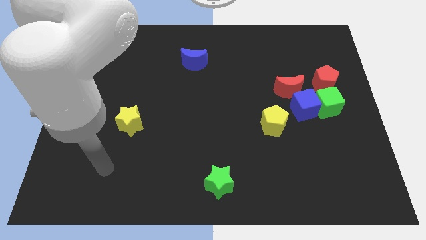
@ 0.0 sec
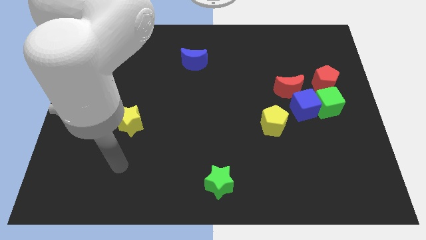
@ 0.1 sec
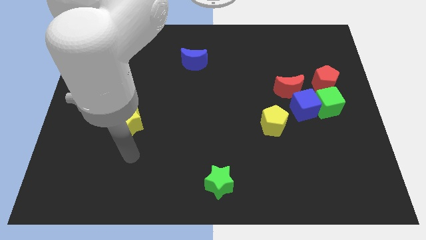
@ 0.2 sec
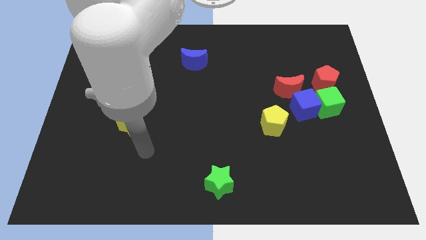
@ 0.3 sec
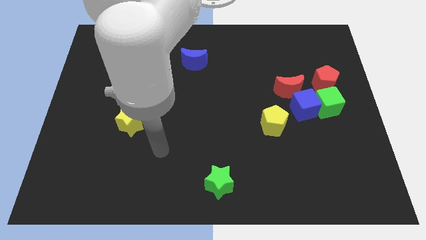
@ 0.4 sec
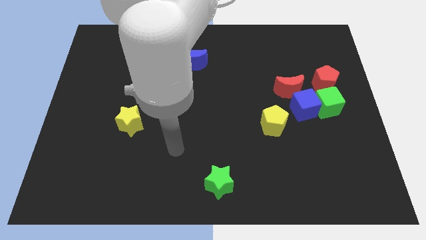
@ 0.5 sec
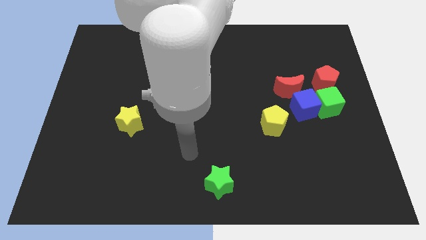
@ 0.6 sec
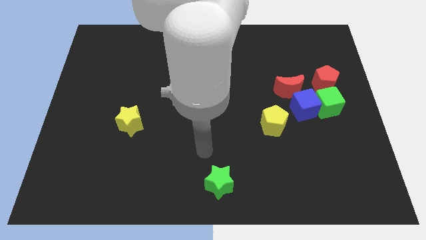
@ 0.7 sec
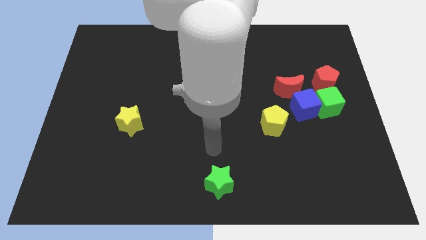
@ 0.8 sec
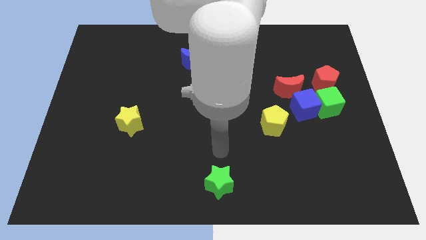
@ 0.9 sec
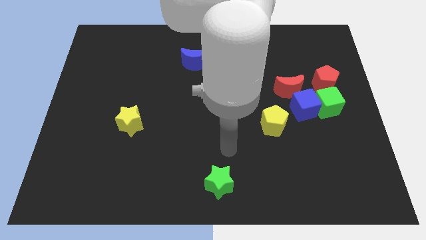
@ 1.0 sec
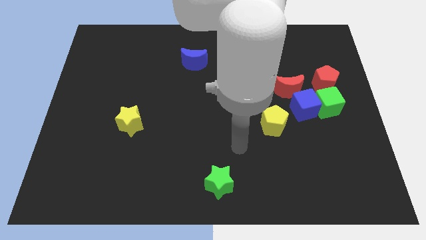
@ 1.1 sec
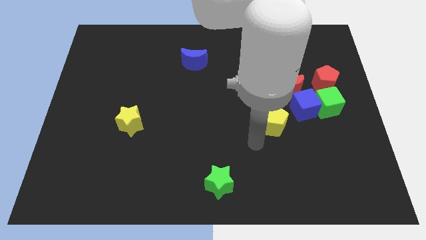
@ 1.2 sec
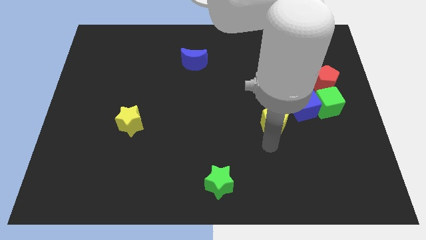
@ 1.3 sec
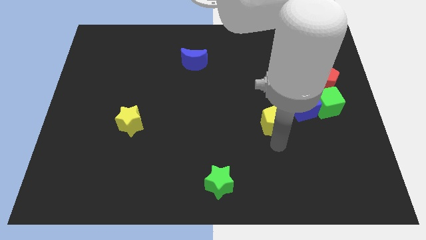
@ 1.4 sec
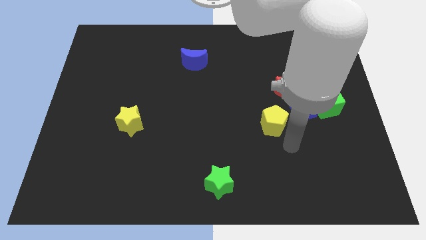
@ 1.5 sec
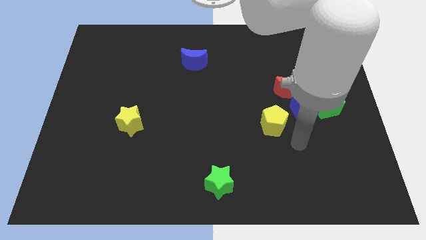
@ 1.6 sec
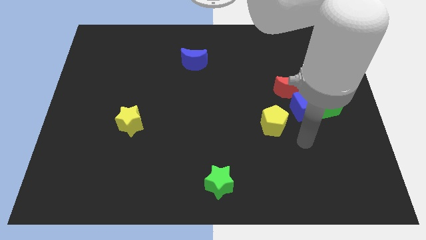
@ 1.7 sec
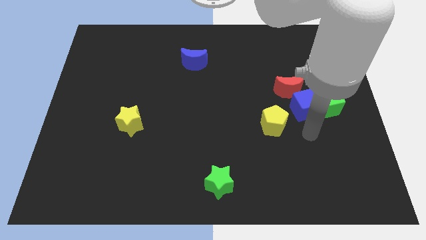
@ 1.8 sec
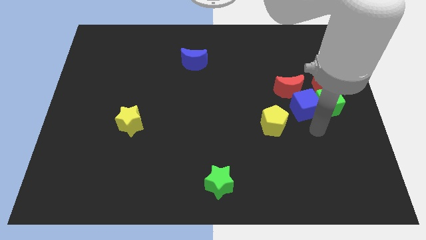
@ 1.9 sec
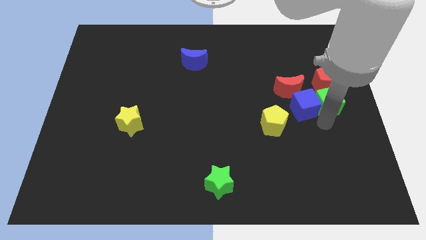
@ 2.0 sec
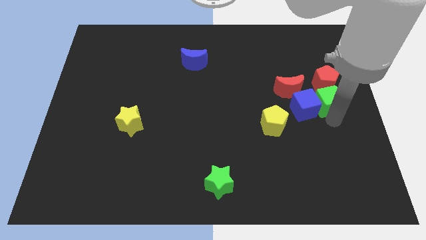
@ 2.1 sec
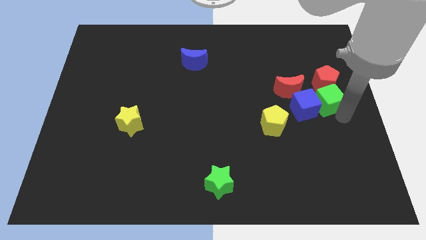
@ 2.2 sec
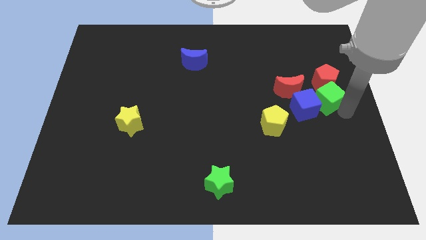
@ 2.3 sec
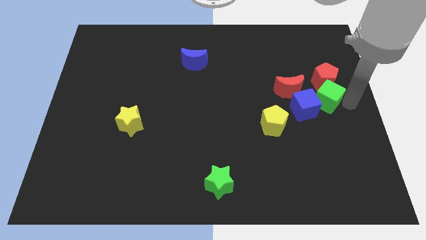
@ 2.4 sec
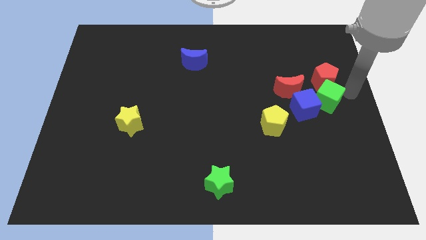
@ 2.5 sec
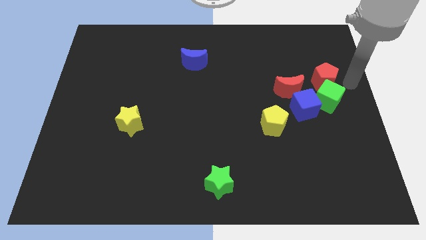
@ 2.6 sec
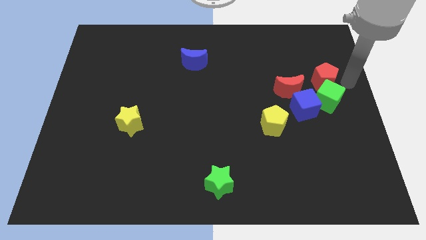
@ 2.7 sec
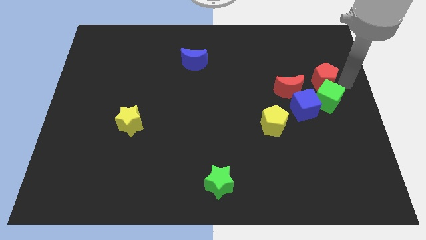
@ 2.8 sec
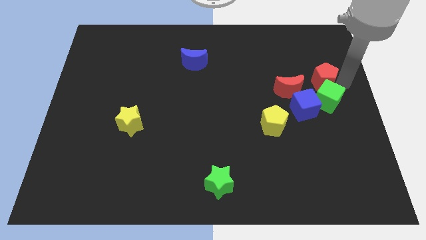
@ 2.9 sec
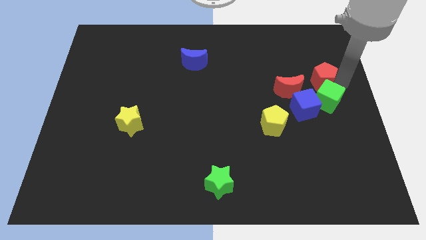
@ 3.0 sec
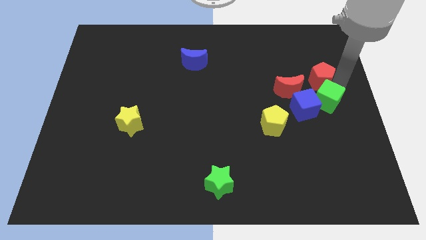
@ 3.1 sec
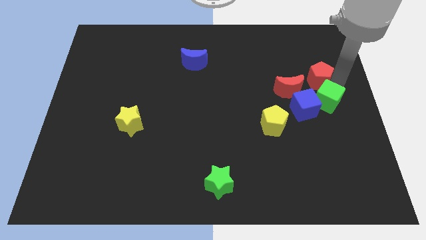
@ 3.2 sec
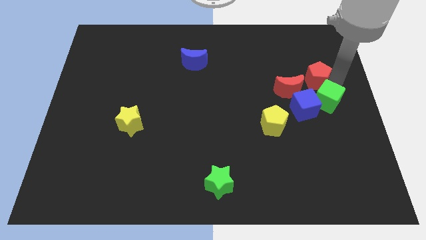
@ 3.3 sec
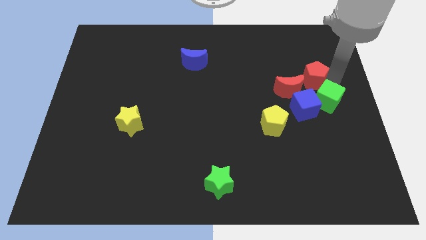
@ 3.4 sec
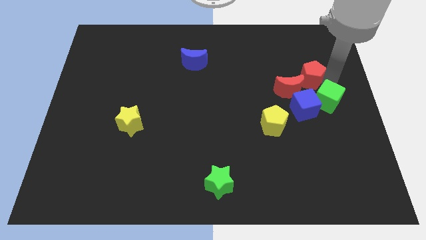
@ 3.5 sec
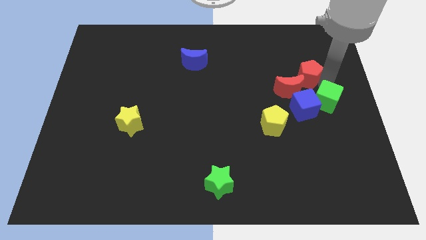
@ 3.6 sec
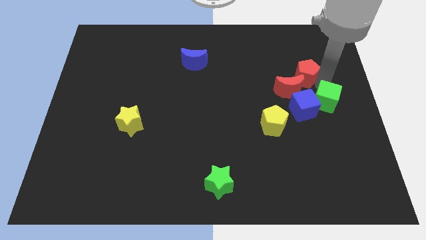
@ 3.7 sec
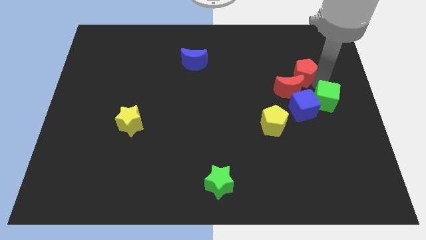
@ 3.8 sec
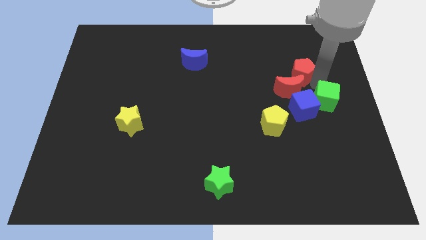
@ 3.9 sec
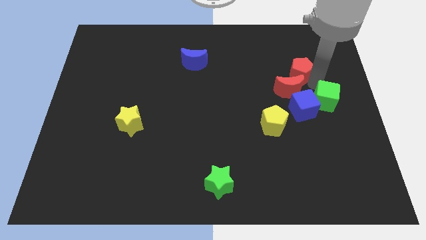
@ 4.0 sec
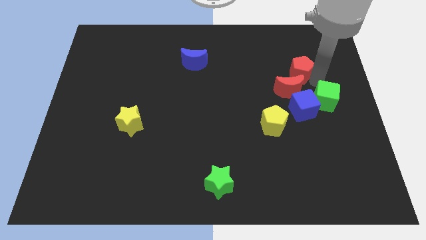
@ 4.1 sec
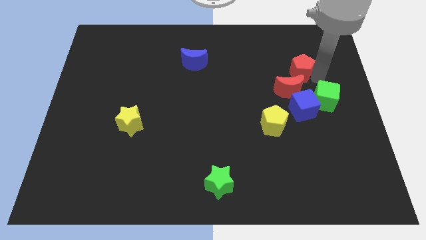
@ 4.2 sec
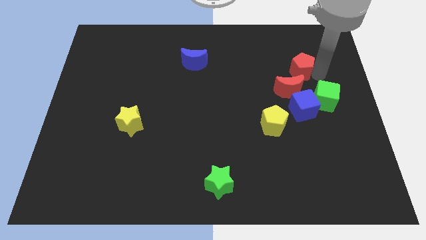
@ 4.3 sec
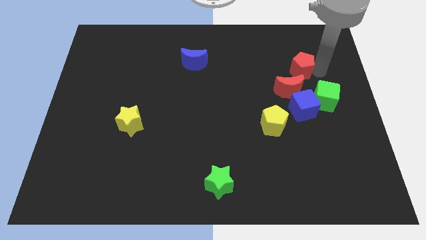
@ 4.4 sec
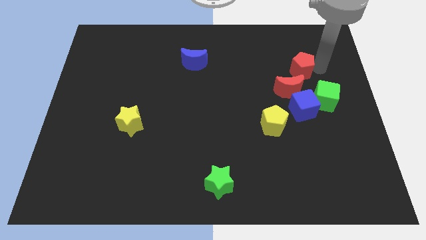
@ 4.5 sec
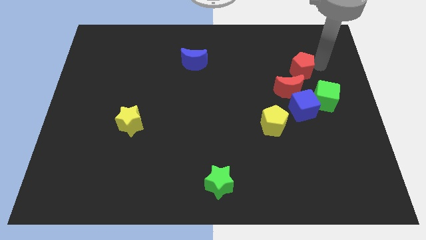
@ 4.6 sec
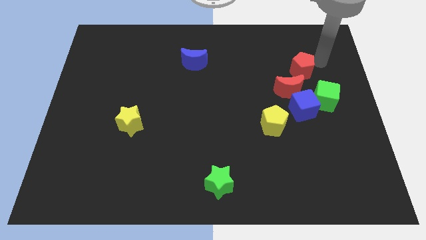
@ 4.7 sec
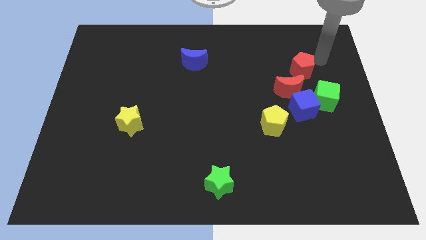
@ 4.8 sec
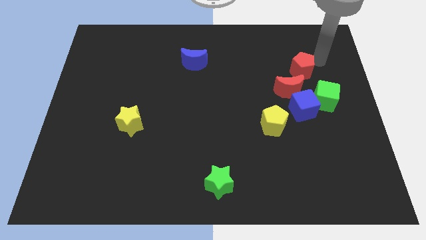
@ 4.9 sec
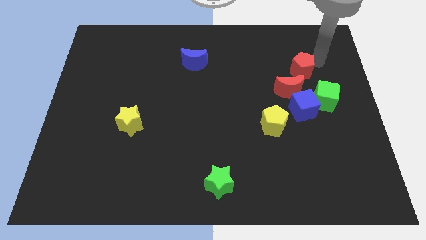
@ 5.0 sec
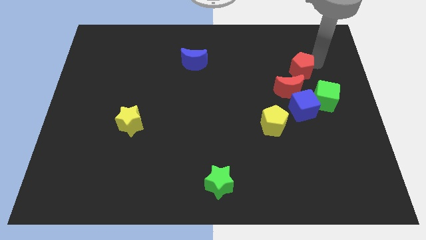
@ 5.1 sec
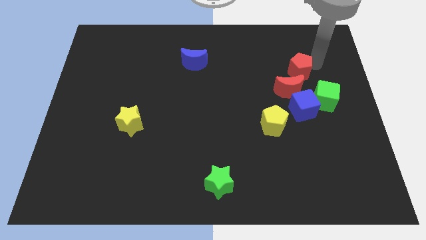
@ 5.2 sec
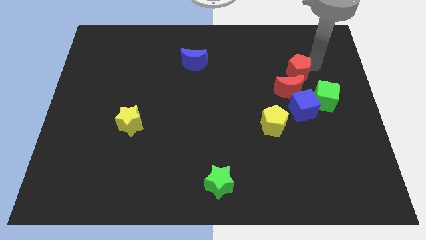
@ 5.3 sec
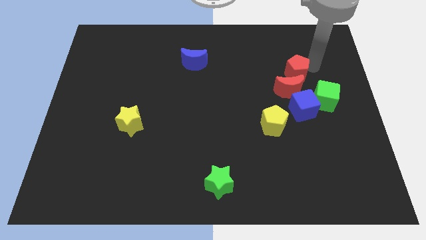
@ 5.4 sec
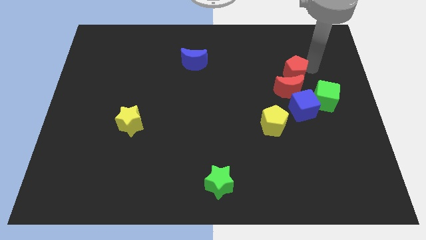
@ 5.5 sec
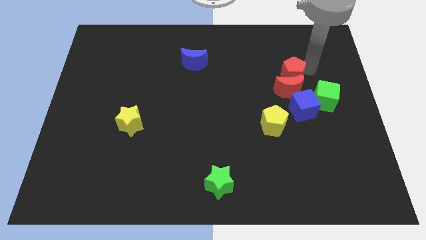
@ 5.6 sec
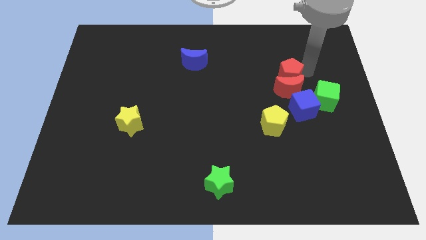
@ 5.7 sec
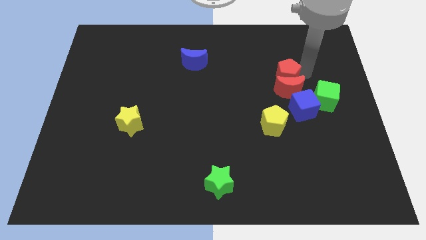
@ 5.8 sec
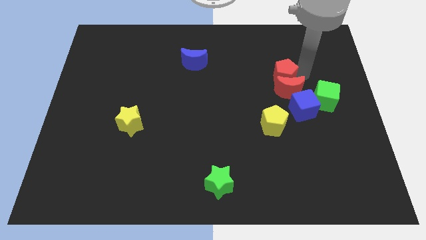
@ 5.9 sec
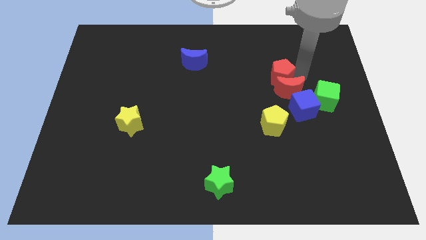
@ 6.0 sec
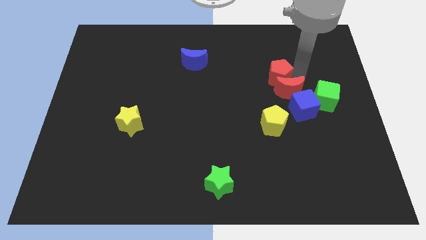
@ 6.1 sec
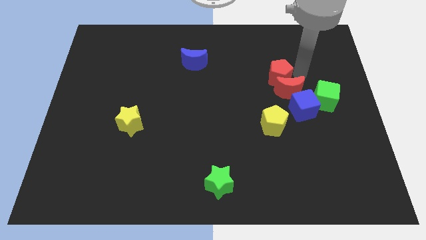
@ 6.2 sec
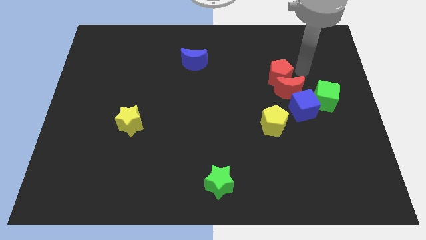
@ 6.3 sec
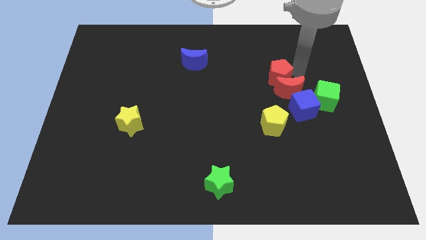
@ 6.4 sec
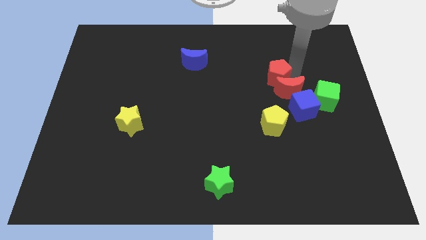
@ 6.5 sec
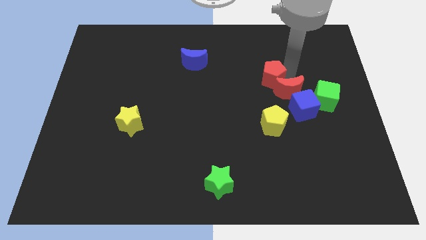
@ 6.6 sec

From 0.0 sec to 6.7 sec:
push the red pentagon just left of the red moon
